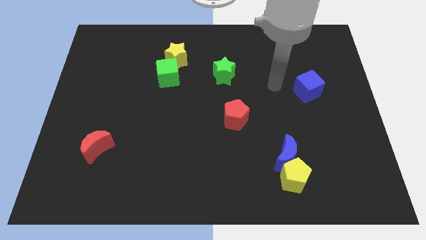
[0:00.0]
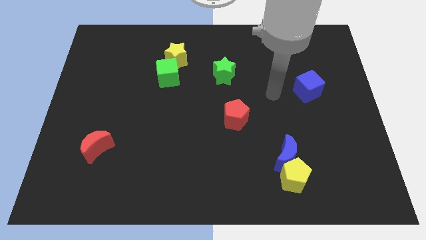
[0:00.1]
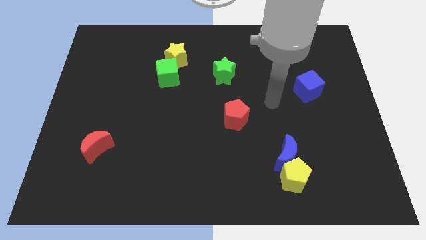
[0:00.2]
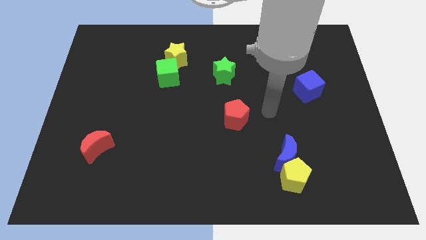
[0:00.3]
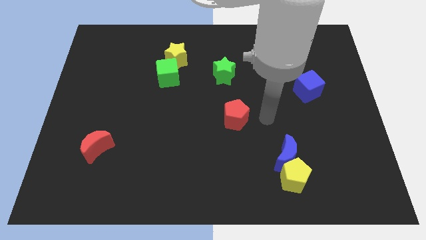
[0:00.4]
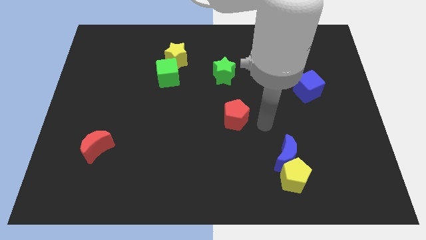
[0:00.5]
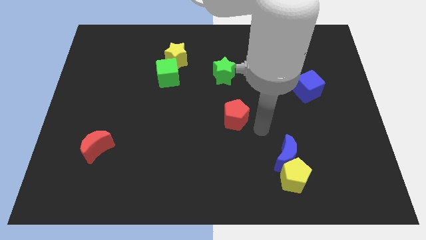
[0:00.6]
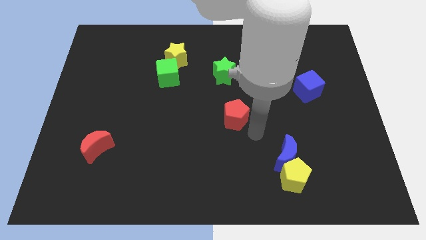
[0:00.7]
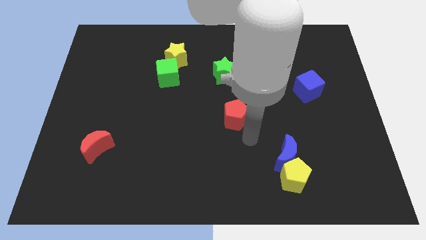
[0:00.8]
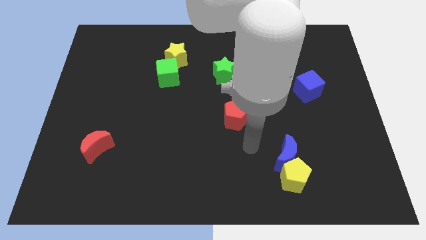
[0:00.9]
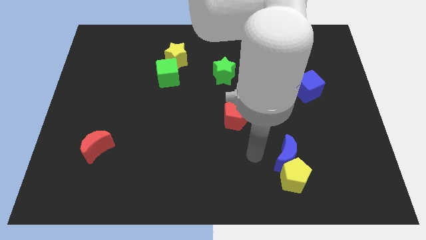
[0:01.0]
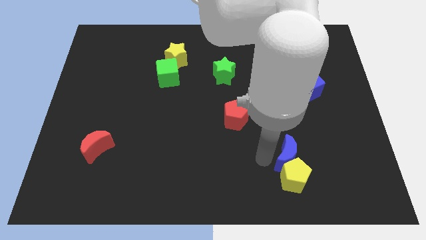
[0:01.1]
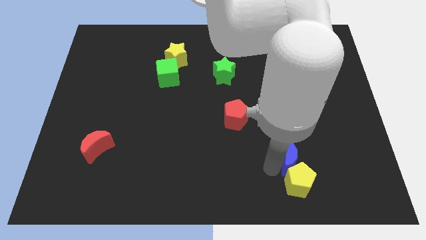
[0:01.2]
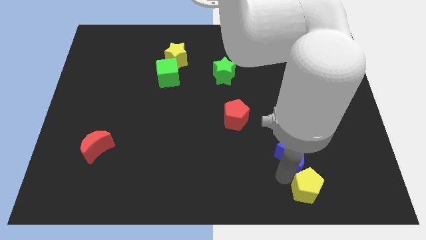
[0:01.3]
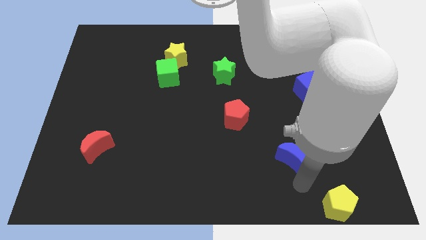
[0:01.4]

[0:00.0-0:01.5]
separate the blue moon from the yellow pentagon

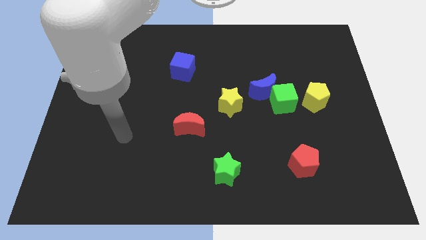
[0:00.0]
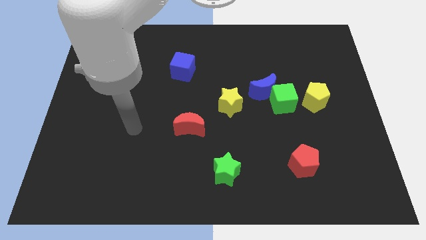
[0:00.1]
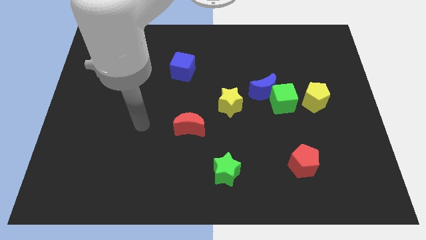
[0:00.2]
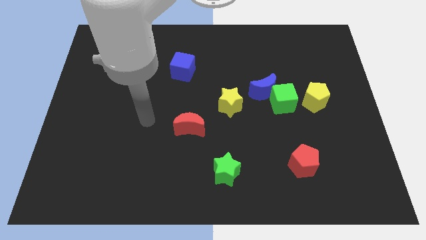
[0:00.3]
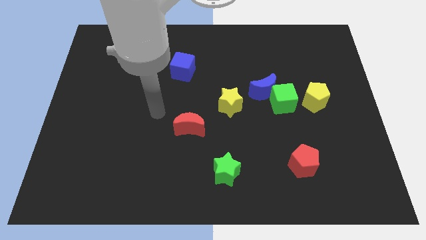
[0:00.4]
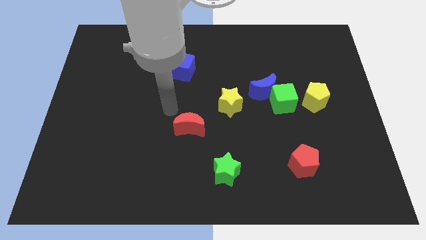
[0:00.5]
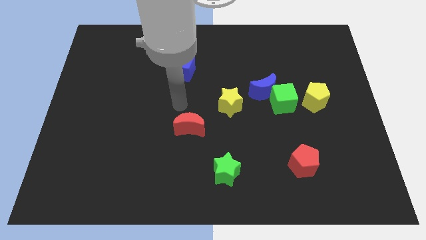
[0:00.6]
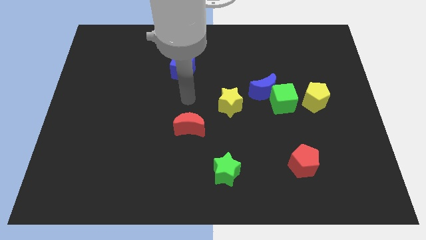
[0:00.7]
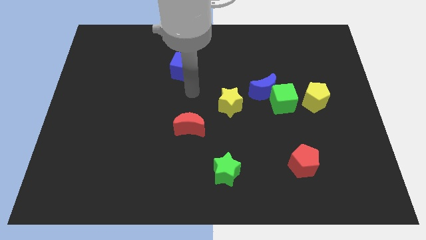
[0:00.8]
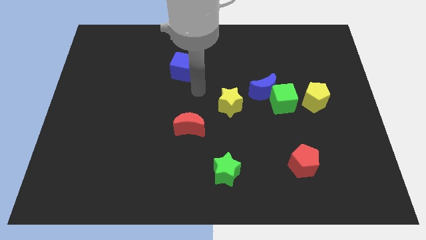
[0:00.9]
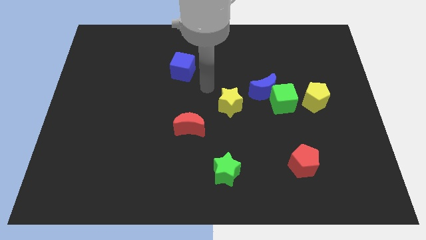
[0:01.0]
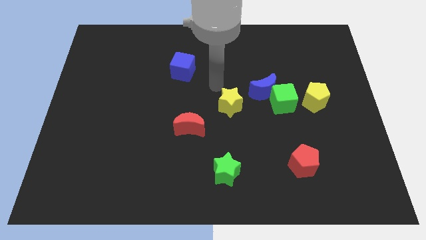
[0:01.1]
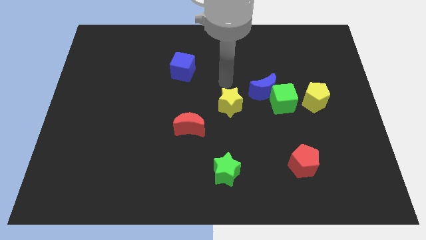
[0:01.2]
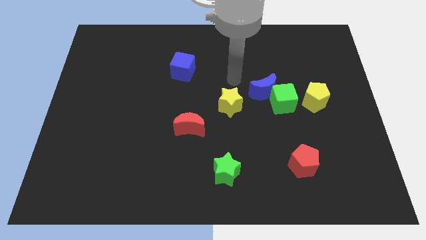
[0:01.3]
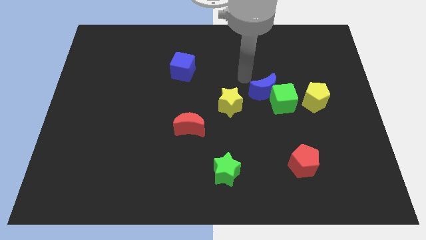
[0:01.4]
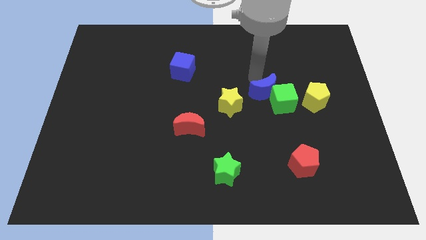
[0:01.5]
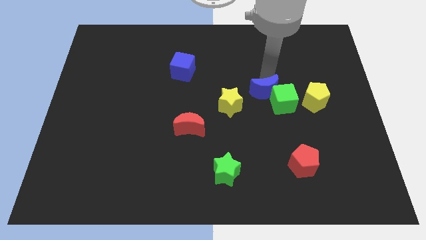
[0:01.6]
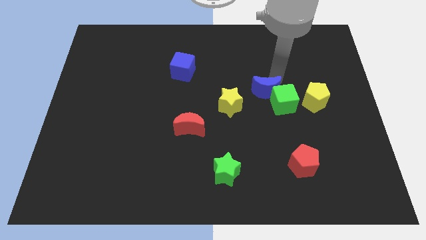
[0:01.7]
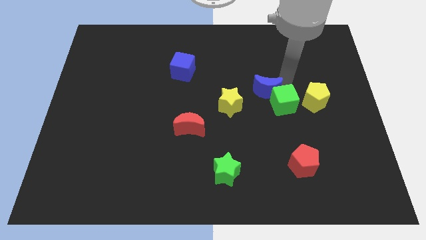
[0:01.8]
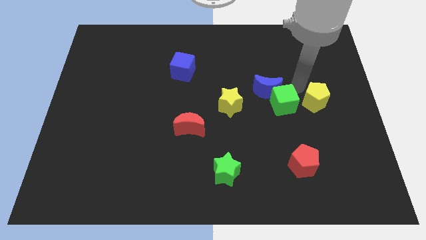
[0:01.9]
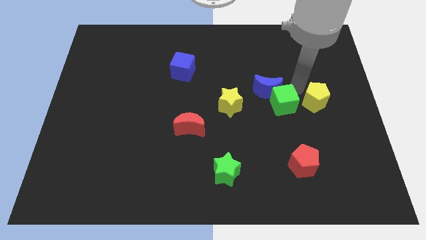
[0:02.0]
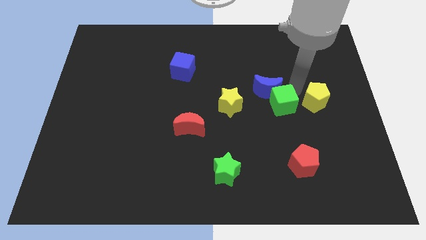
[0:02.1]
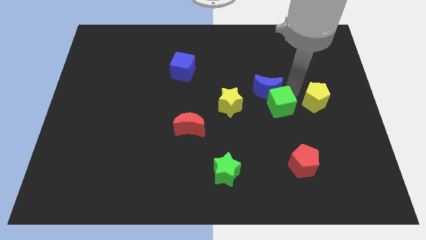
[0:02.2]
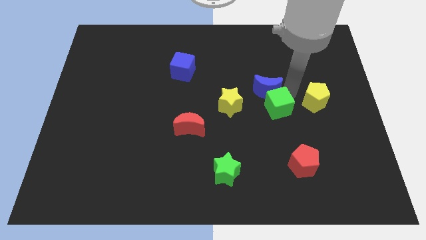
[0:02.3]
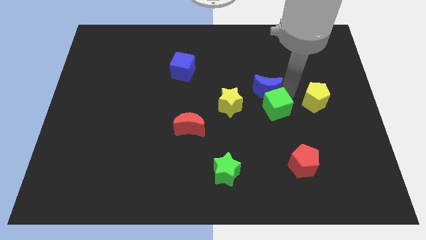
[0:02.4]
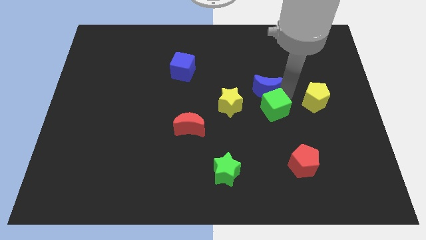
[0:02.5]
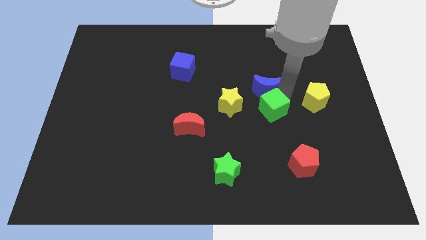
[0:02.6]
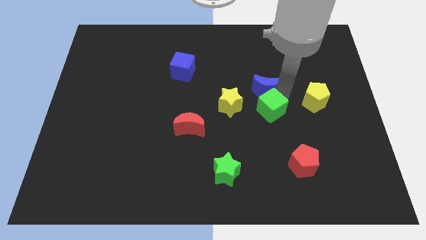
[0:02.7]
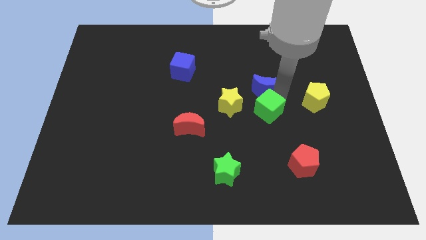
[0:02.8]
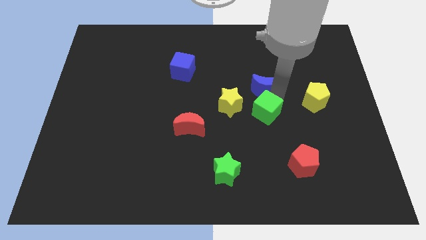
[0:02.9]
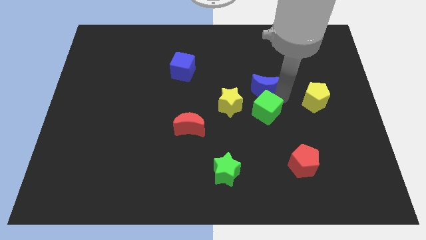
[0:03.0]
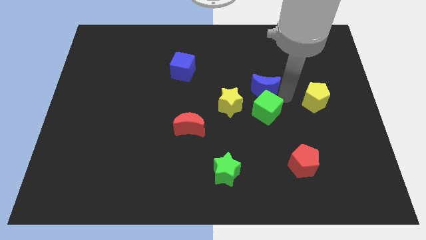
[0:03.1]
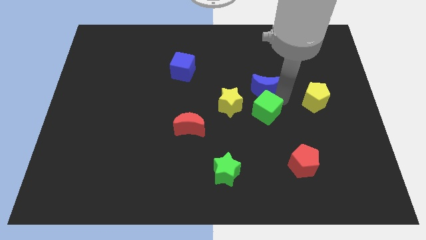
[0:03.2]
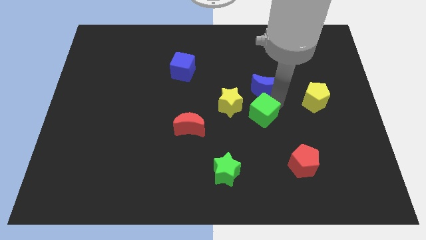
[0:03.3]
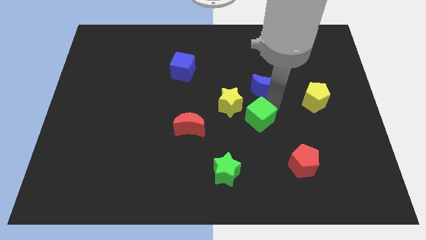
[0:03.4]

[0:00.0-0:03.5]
pull the green cube apart from the blue moon and yellow pentagon

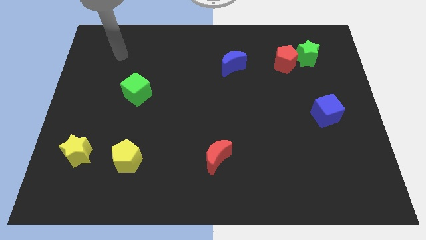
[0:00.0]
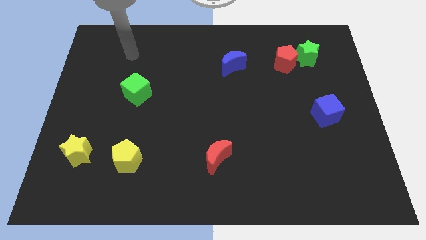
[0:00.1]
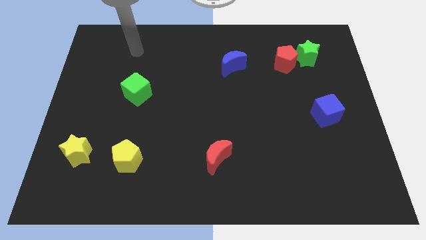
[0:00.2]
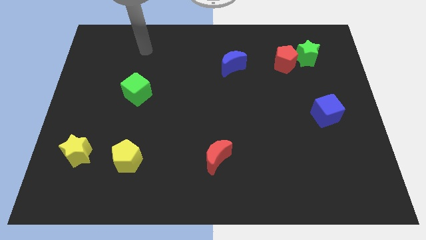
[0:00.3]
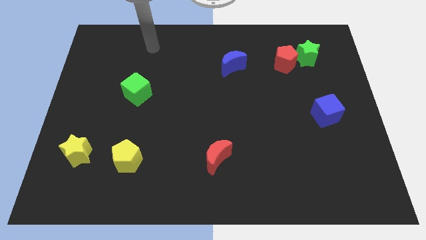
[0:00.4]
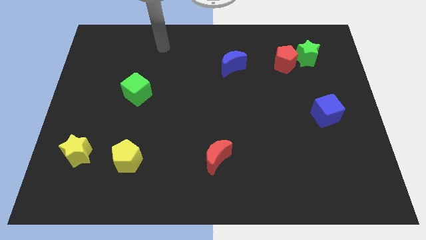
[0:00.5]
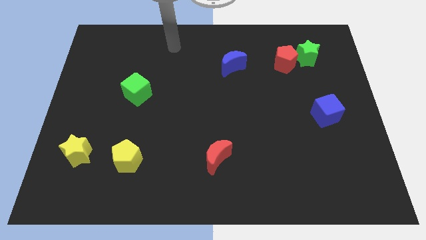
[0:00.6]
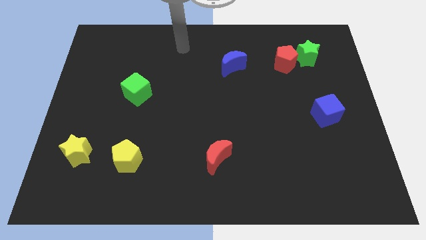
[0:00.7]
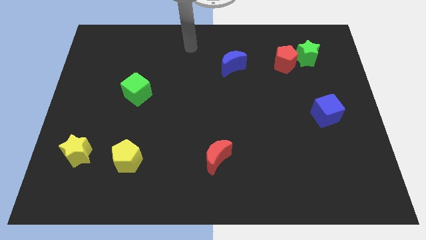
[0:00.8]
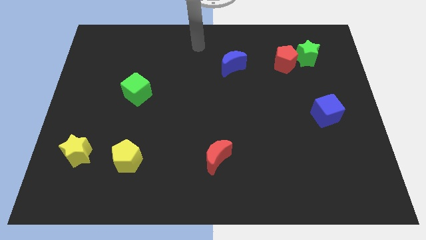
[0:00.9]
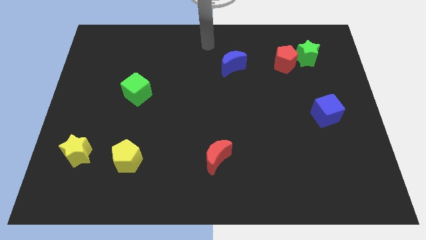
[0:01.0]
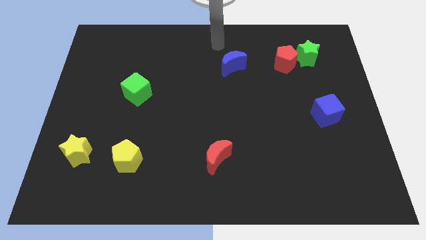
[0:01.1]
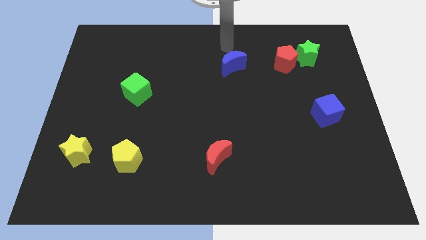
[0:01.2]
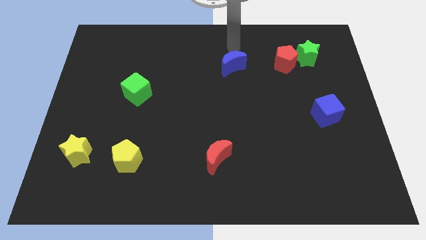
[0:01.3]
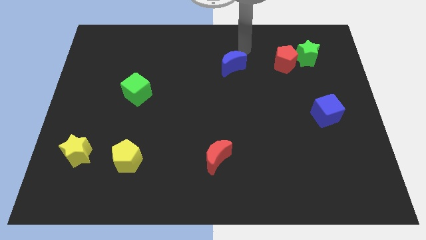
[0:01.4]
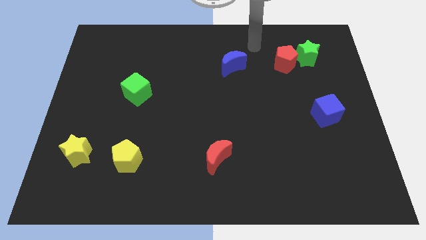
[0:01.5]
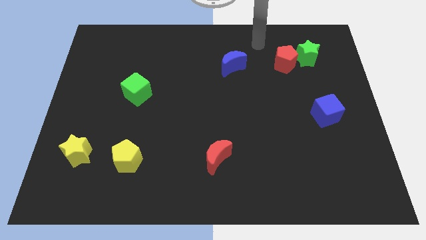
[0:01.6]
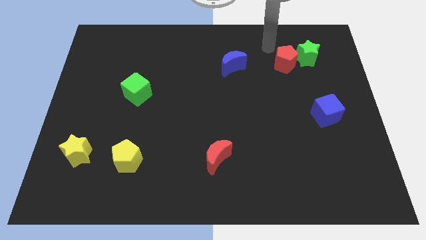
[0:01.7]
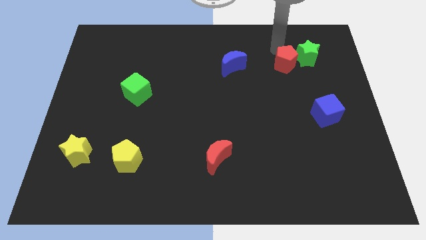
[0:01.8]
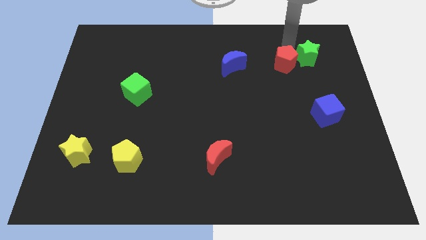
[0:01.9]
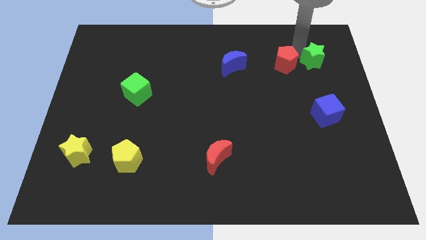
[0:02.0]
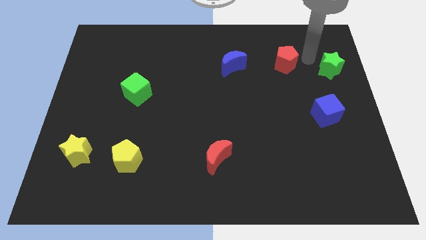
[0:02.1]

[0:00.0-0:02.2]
separate the red pentagon from the green star

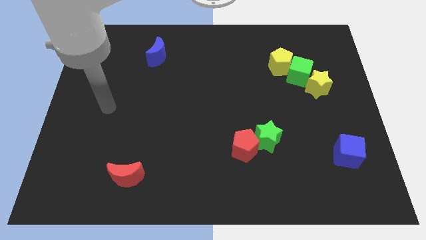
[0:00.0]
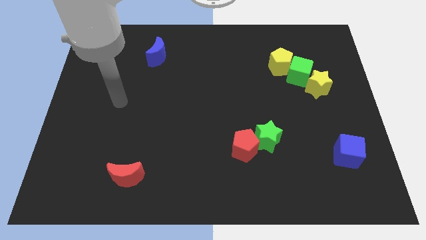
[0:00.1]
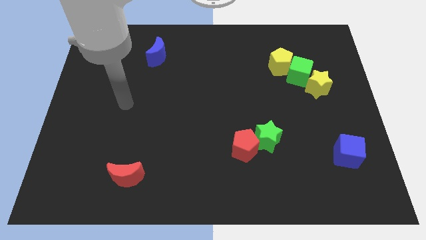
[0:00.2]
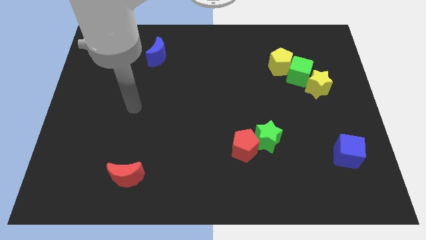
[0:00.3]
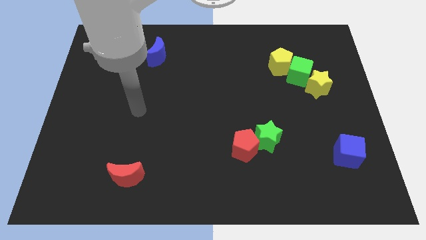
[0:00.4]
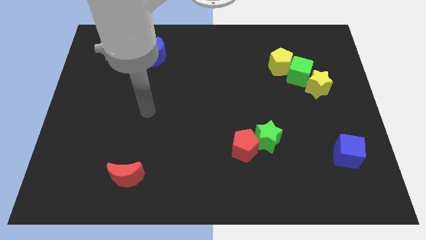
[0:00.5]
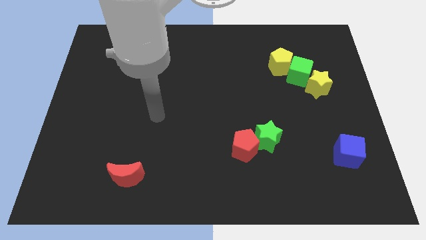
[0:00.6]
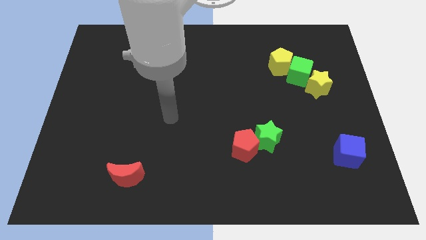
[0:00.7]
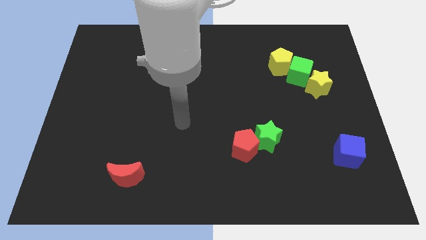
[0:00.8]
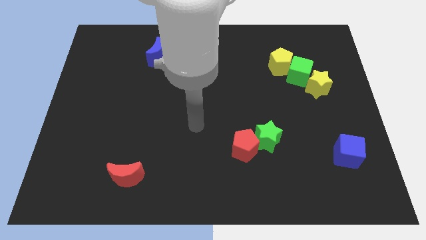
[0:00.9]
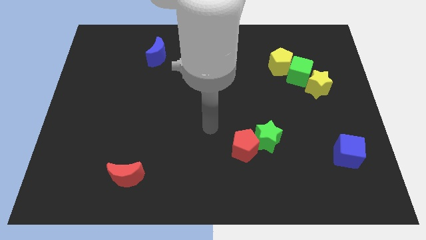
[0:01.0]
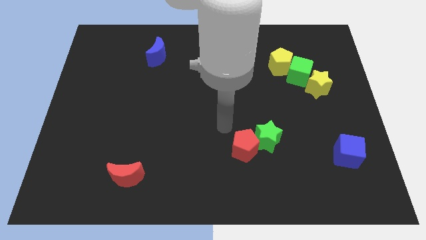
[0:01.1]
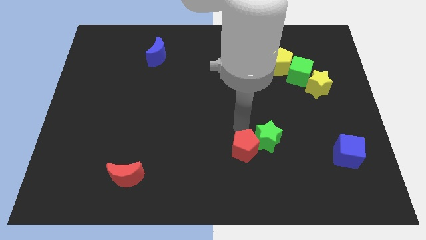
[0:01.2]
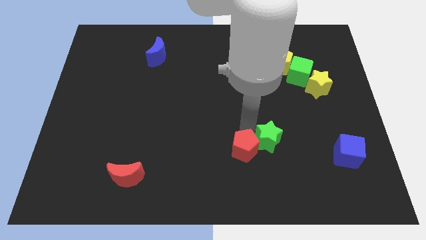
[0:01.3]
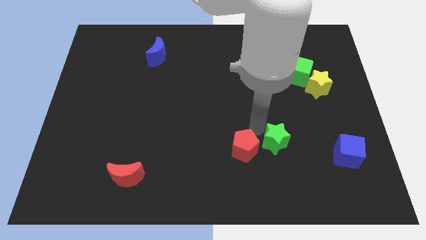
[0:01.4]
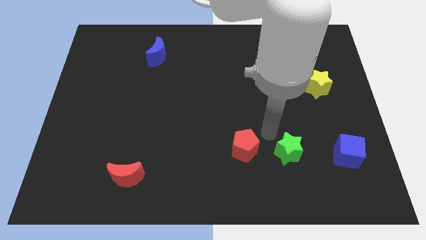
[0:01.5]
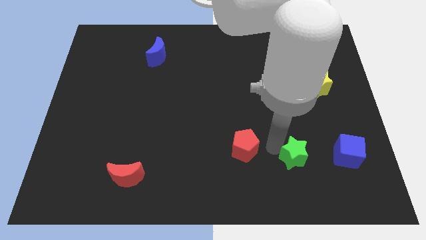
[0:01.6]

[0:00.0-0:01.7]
pull the red pentagon apart from the green star

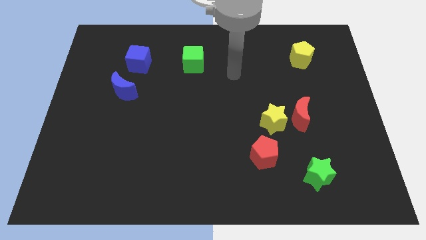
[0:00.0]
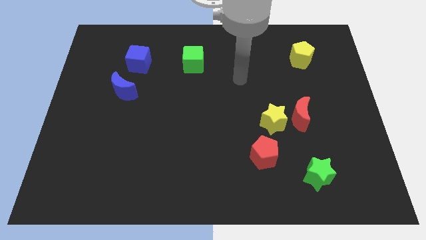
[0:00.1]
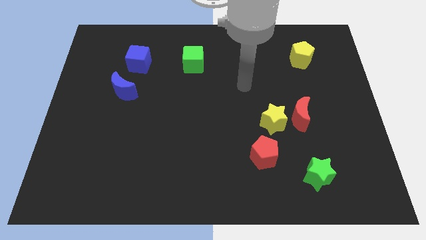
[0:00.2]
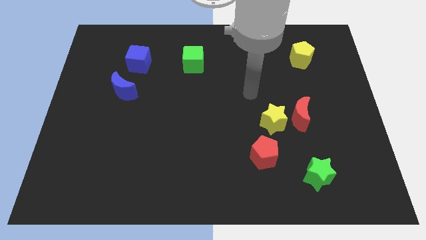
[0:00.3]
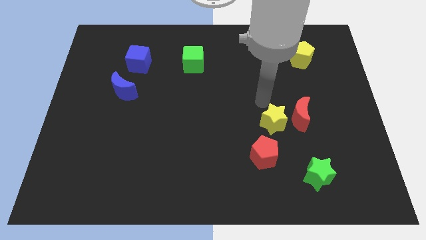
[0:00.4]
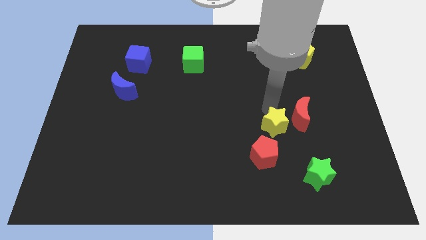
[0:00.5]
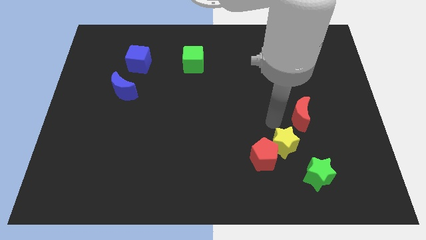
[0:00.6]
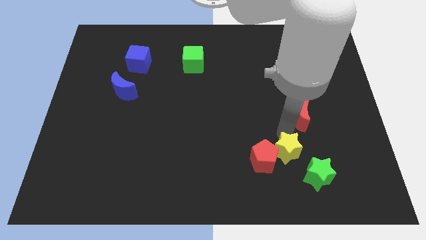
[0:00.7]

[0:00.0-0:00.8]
separate the red moon from the yellow star
